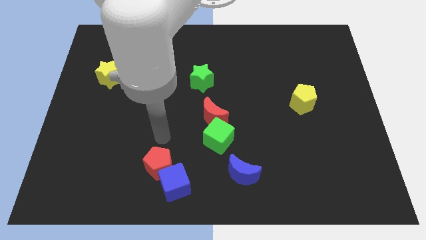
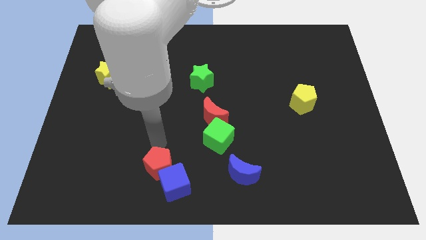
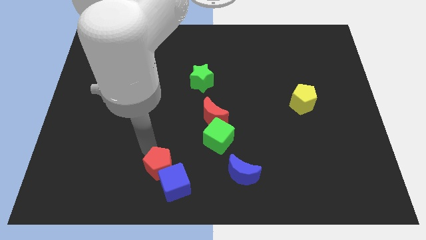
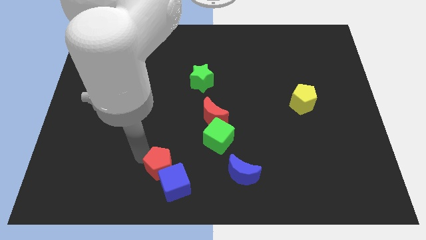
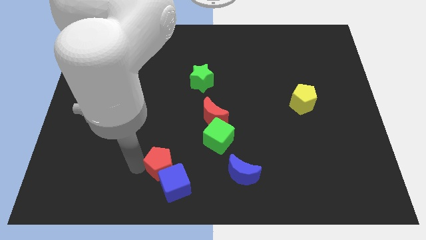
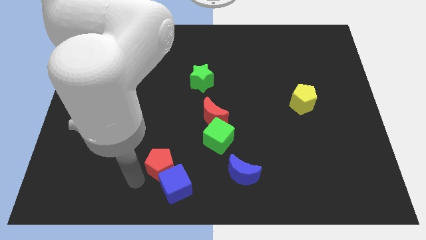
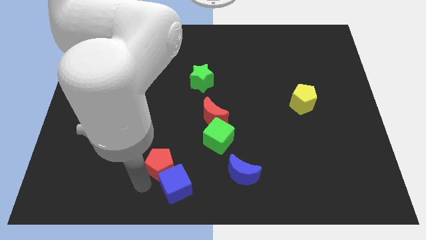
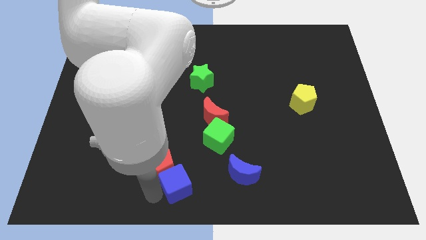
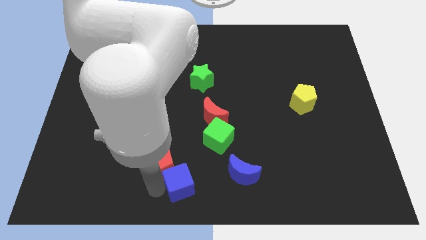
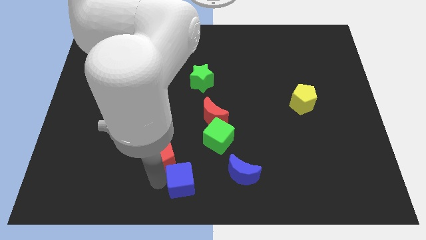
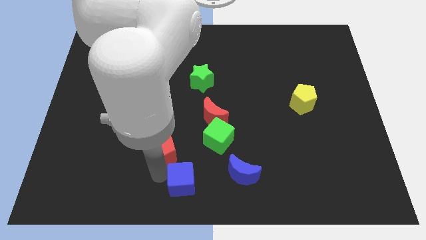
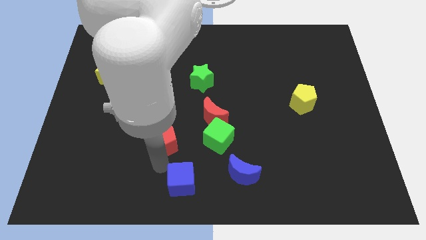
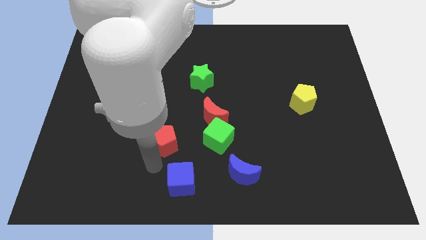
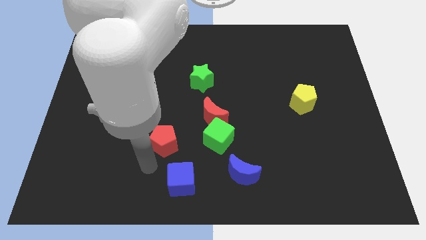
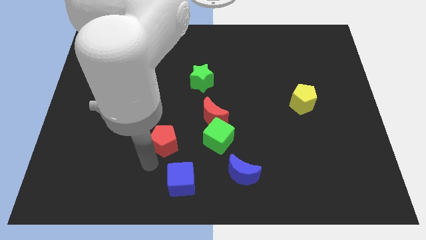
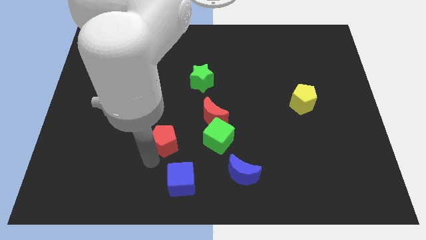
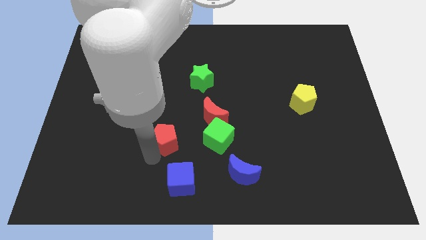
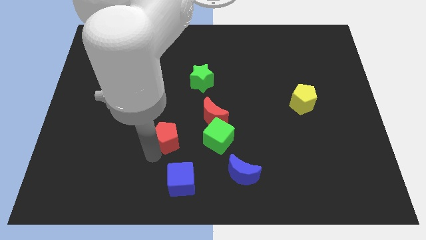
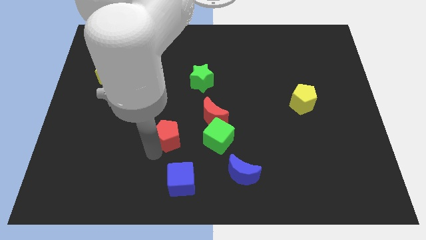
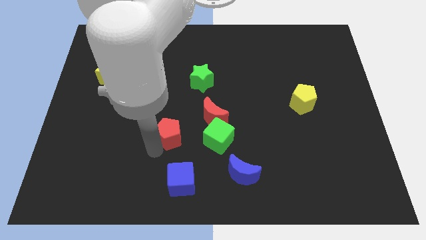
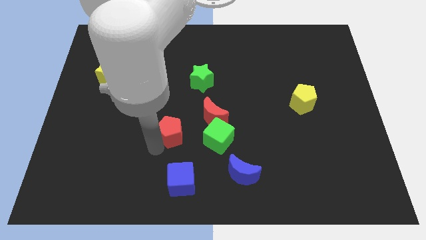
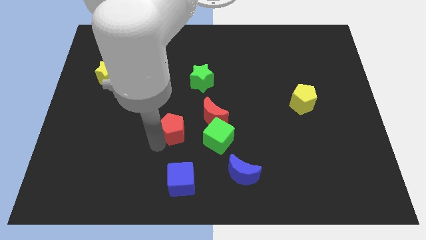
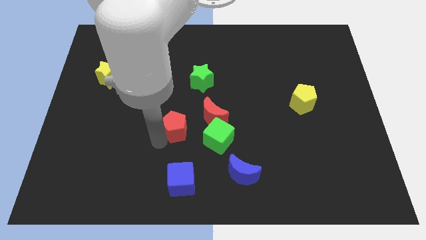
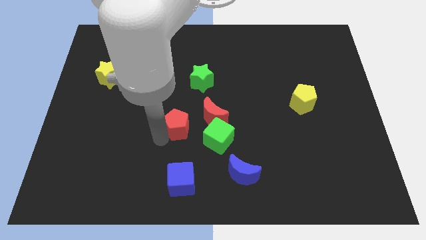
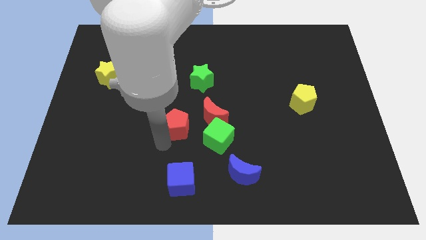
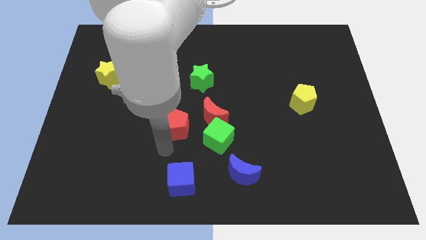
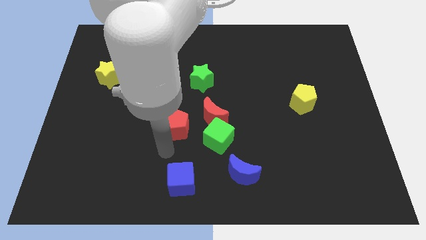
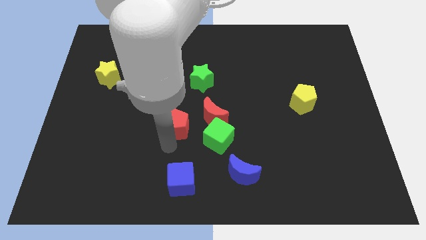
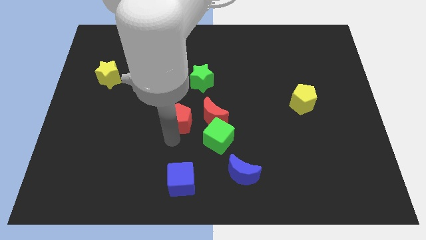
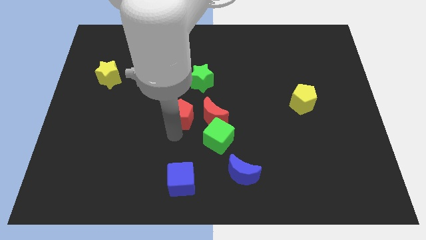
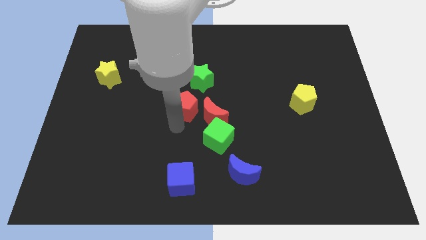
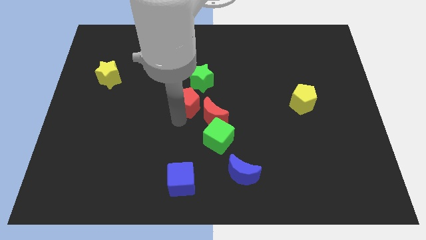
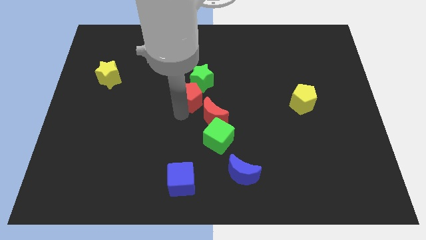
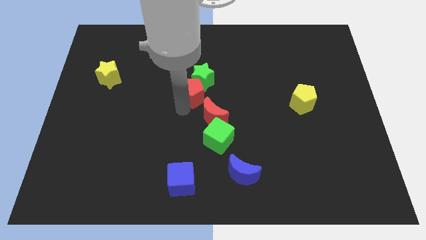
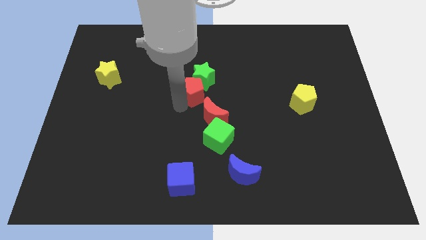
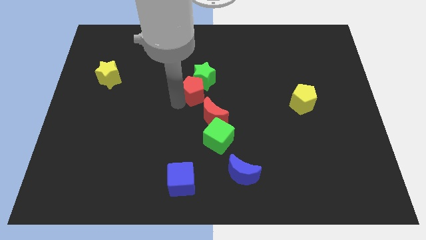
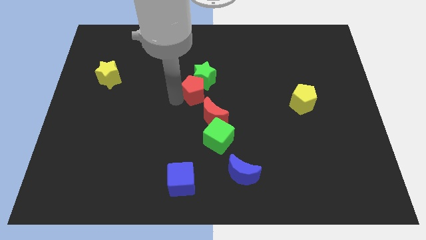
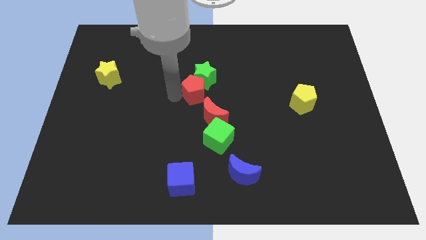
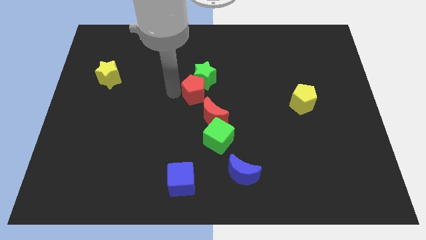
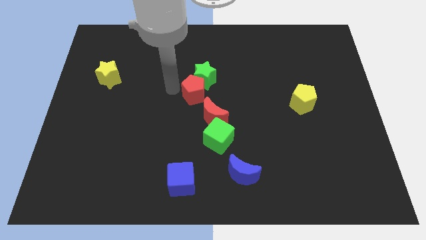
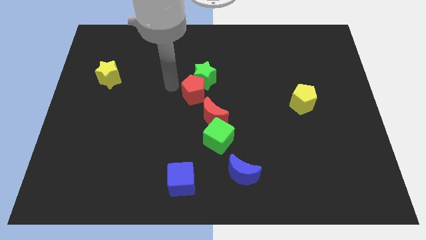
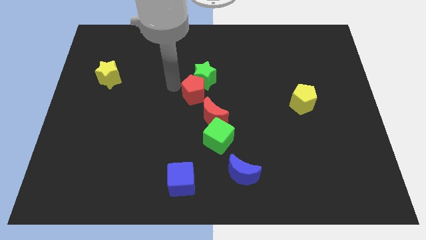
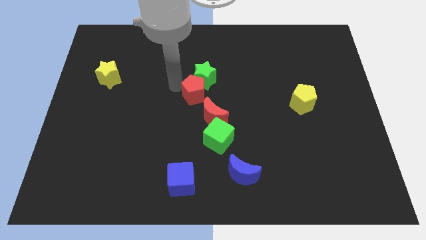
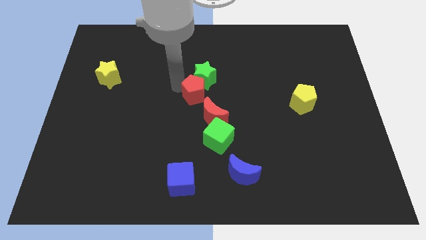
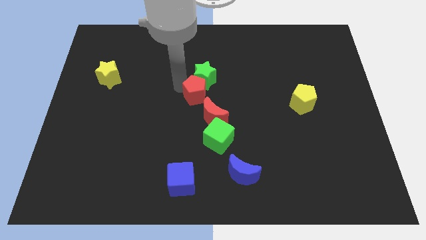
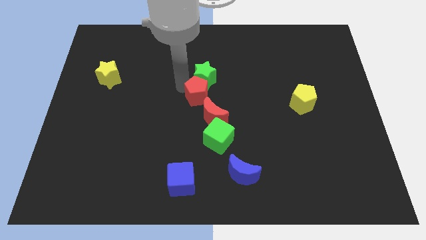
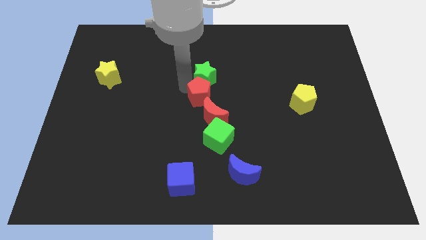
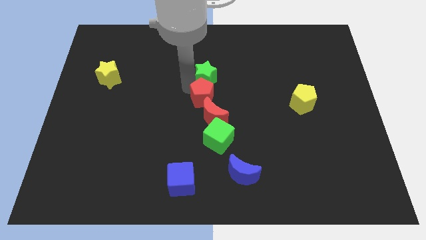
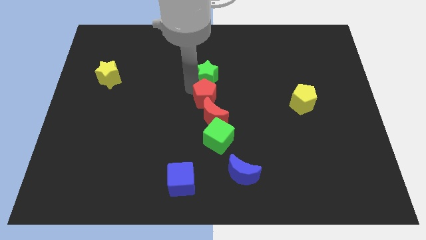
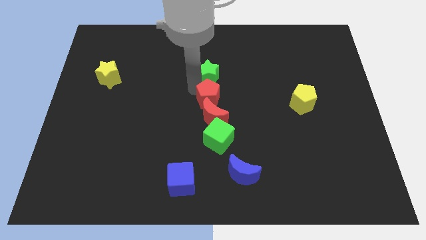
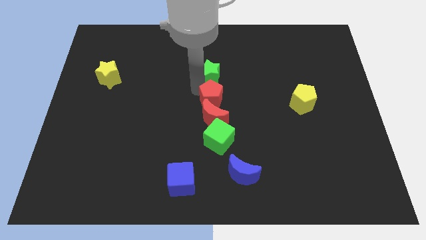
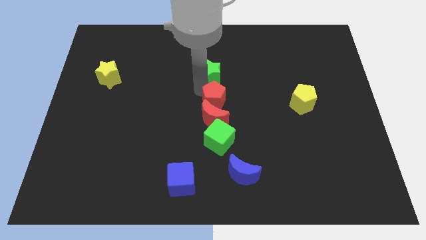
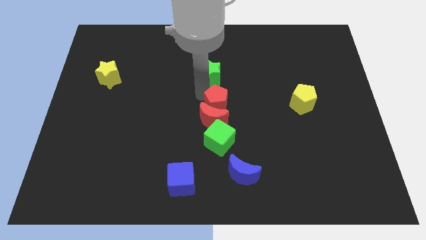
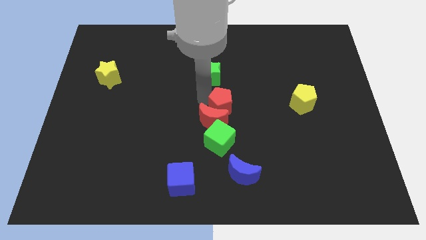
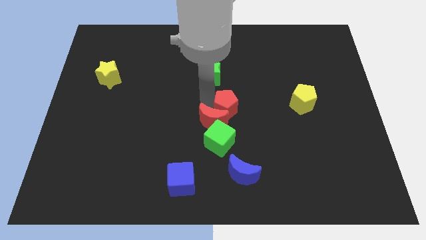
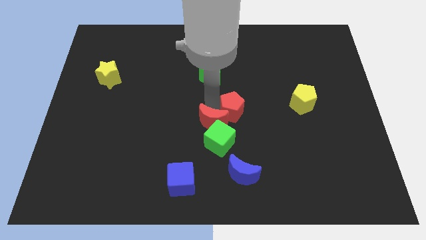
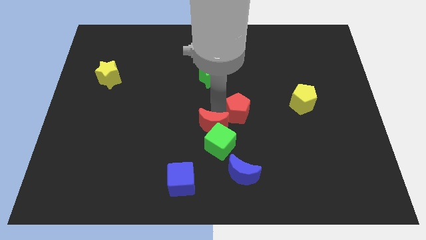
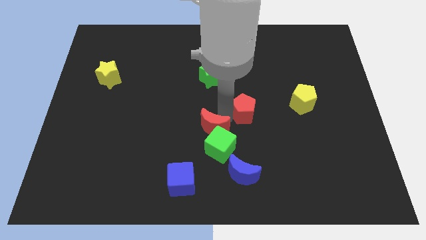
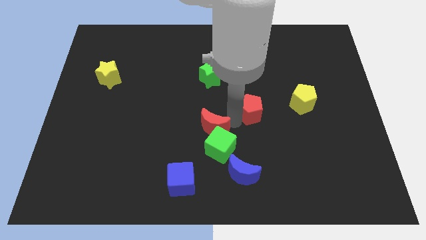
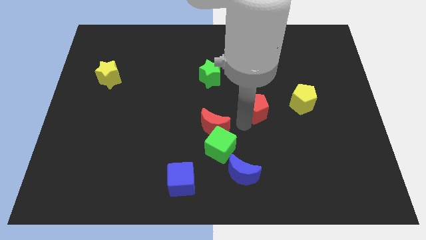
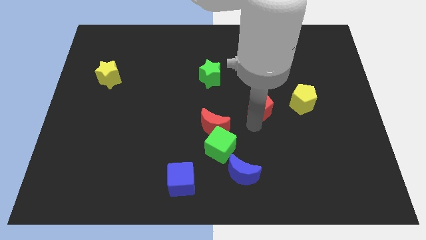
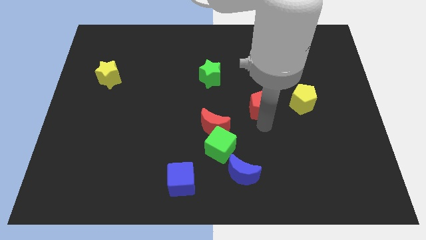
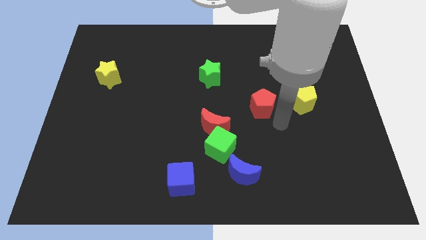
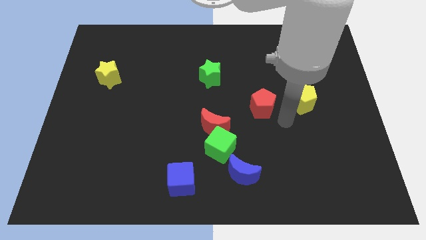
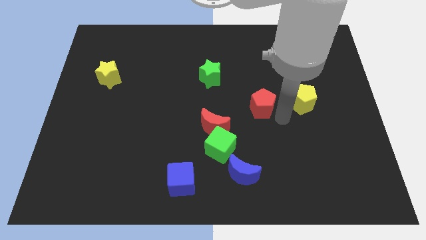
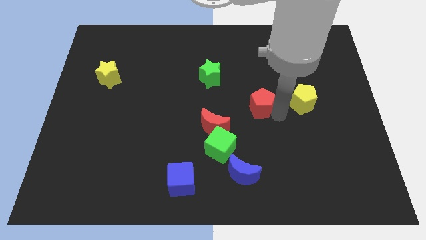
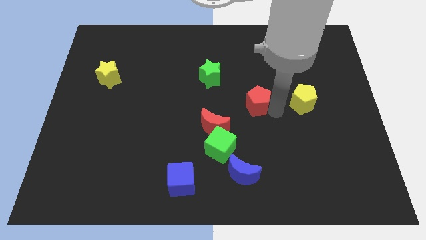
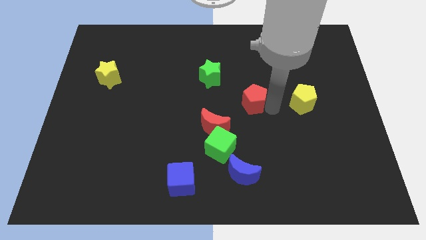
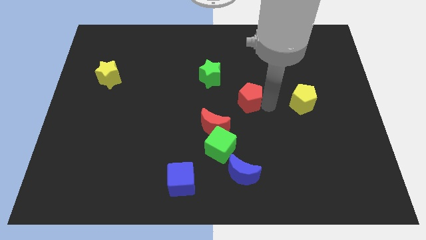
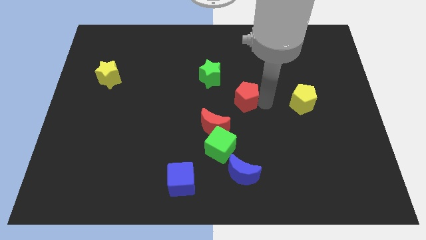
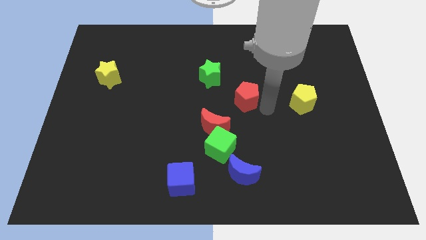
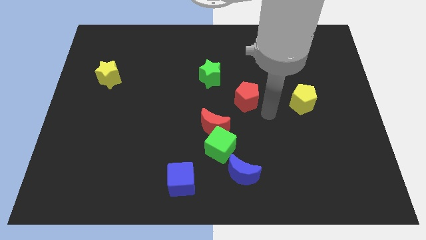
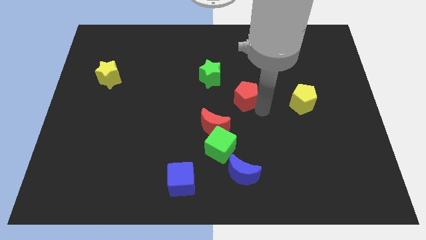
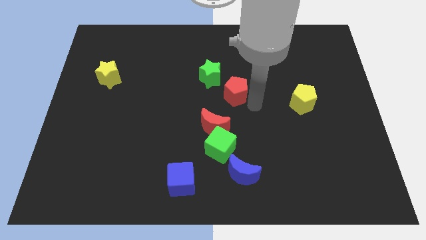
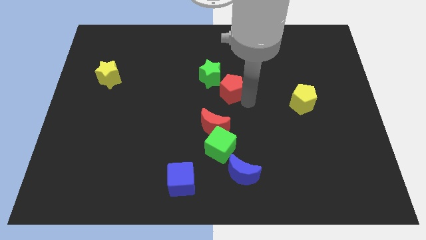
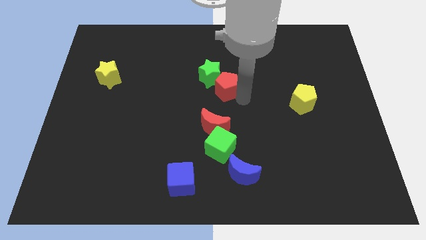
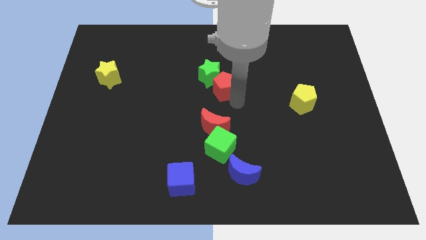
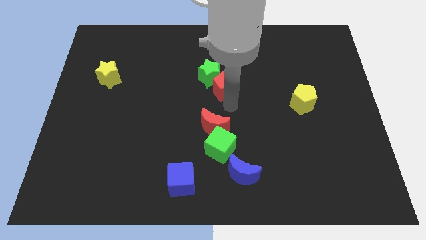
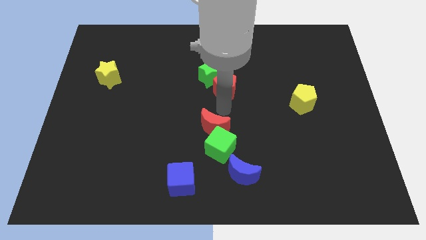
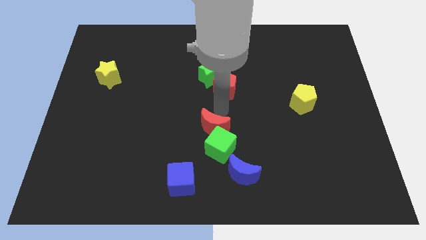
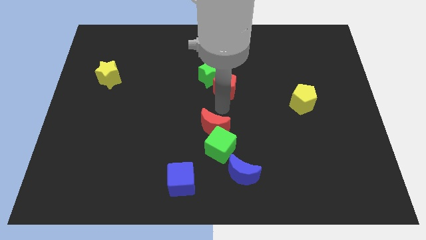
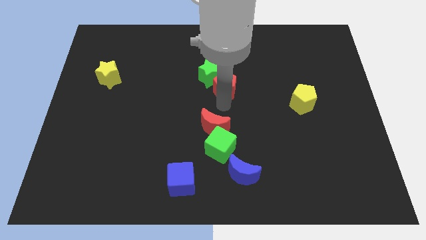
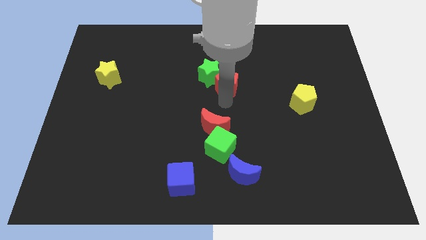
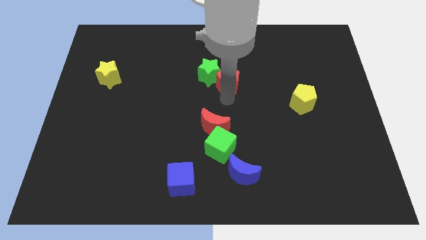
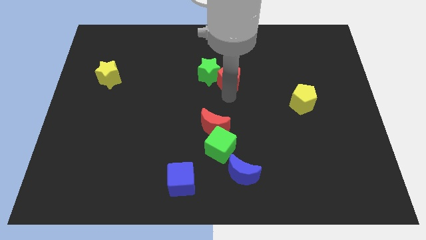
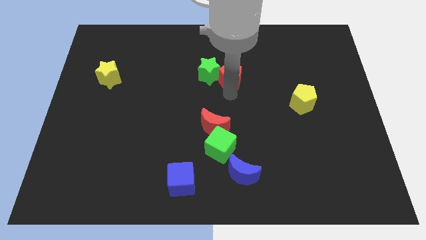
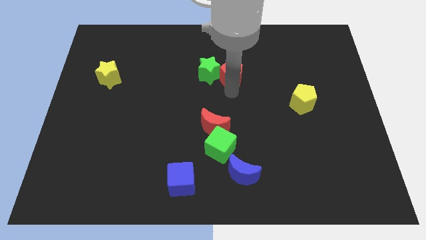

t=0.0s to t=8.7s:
slide the red pentagon to the top right of the green star
